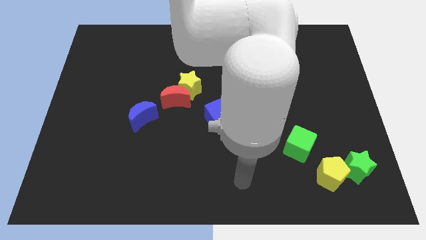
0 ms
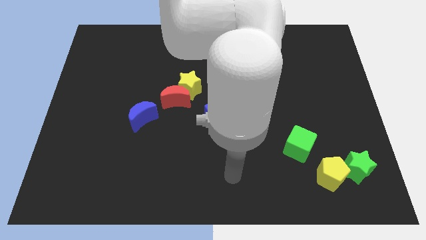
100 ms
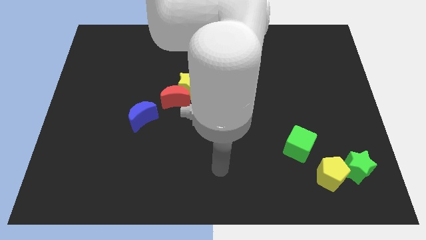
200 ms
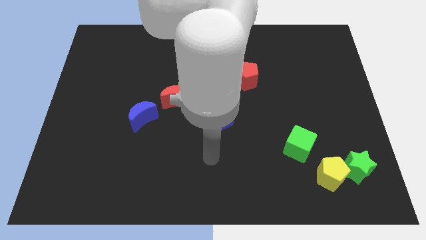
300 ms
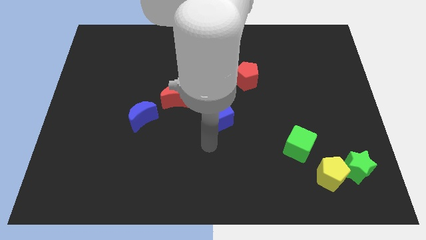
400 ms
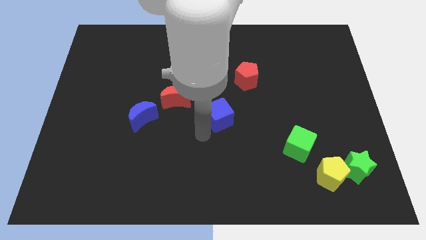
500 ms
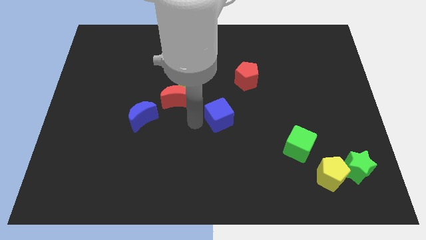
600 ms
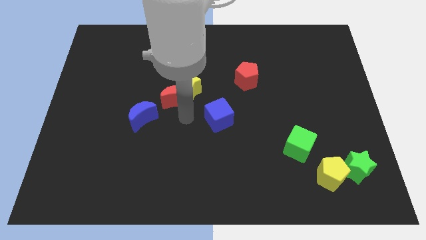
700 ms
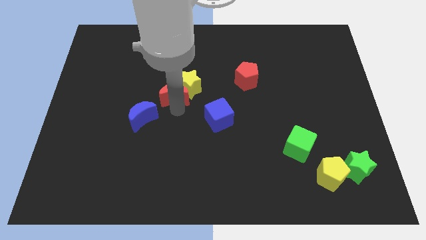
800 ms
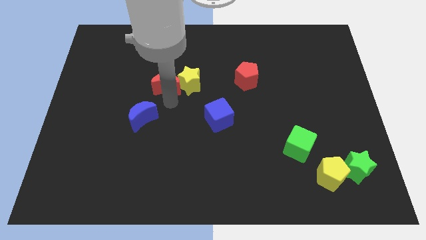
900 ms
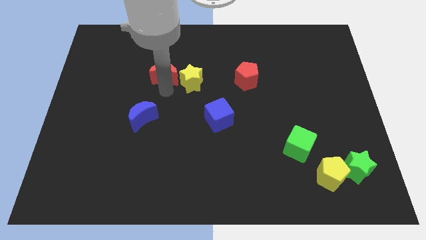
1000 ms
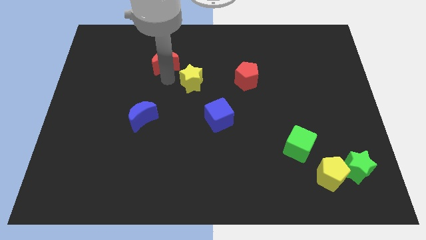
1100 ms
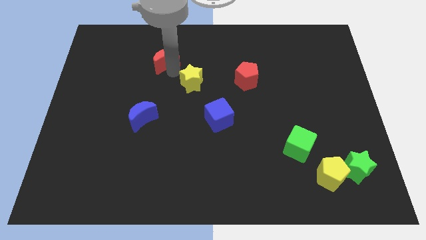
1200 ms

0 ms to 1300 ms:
separate the yellow star from the red moon

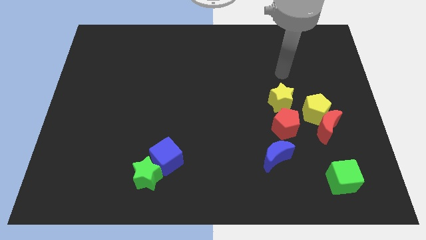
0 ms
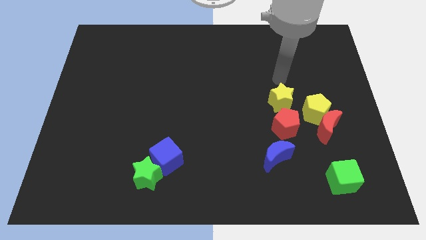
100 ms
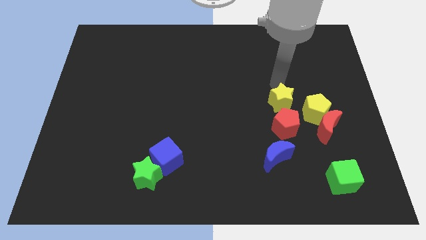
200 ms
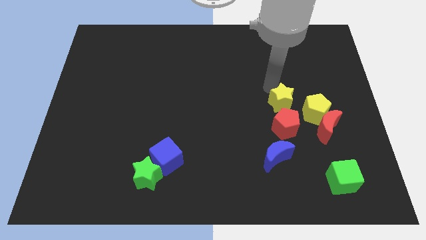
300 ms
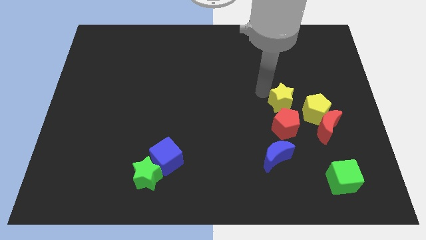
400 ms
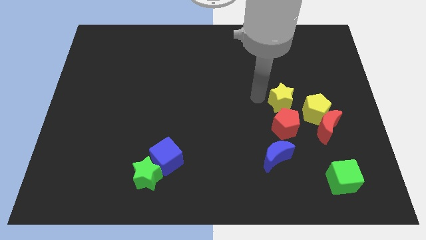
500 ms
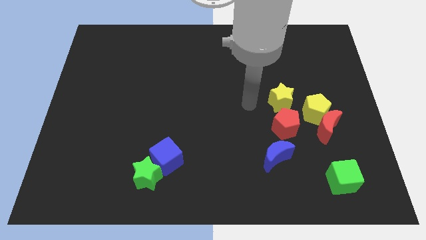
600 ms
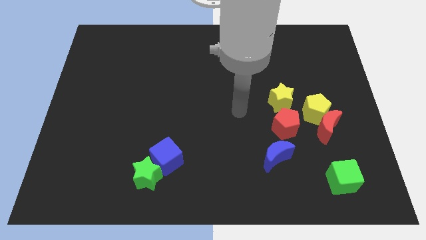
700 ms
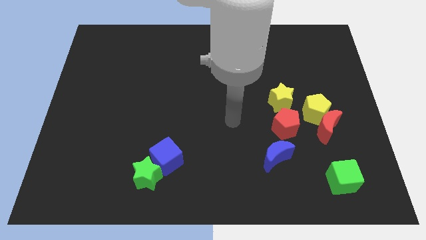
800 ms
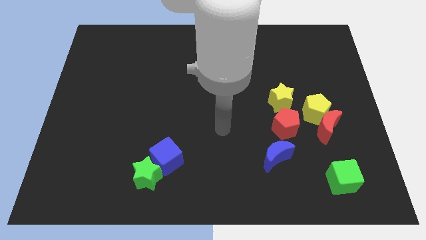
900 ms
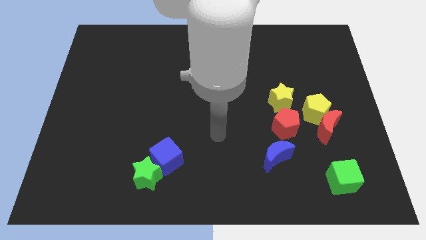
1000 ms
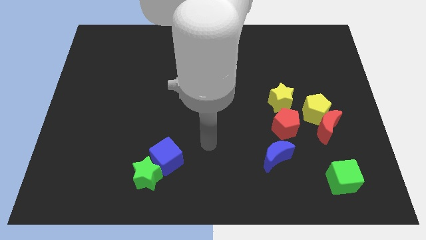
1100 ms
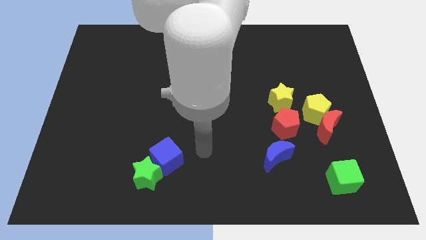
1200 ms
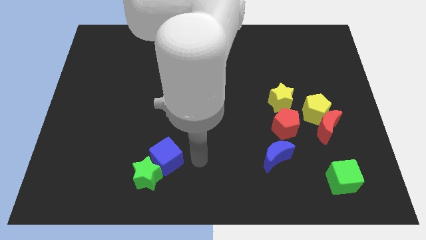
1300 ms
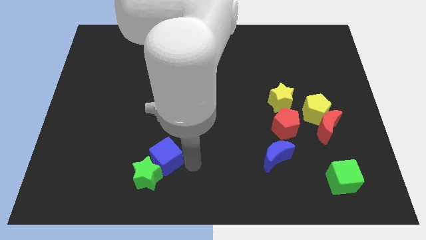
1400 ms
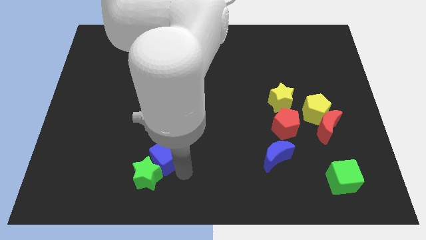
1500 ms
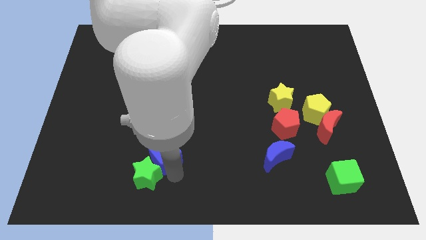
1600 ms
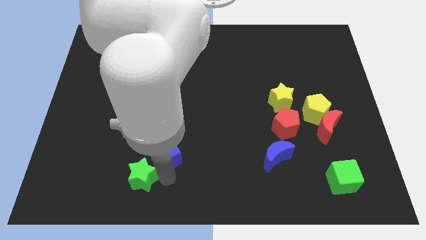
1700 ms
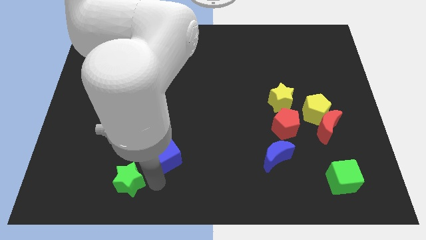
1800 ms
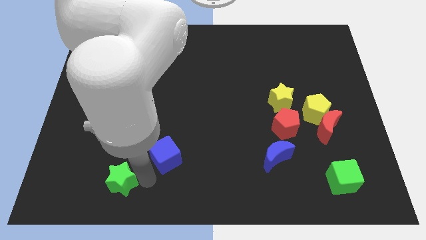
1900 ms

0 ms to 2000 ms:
separate the blue cube from the green star

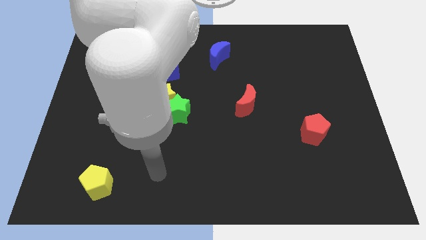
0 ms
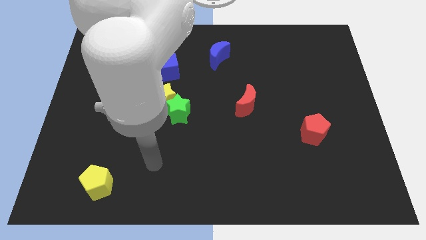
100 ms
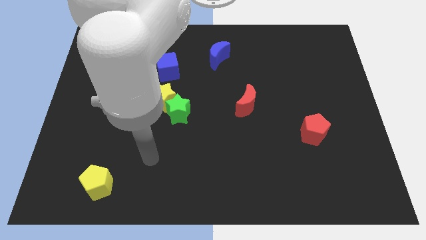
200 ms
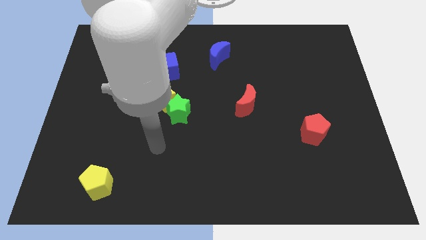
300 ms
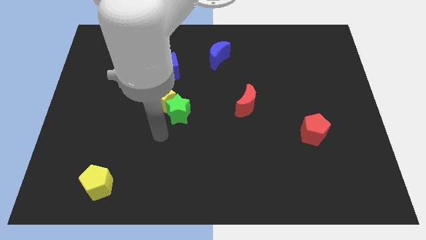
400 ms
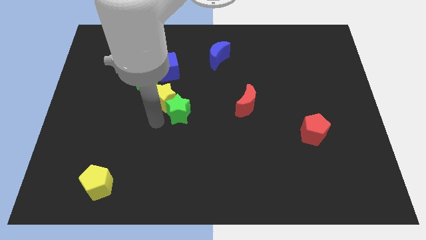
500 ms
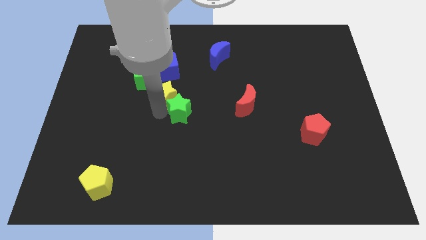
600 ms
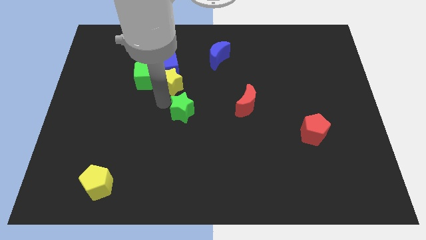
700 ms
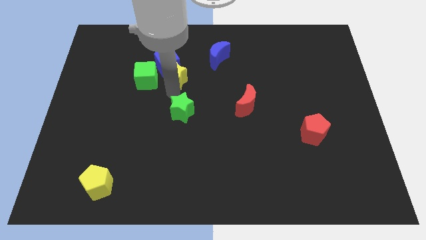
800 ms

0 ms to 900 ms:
pull the green star apart from the yellow star

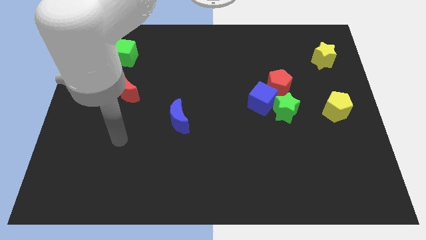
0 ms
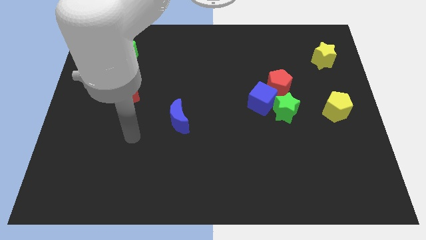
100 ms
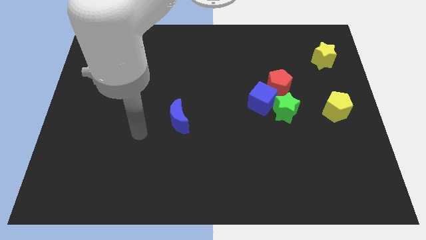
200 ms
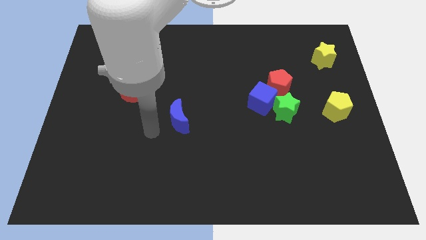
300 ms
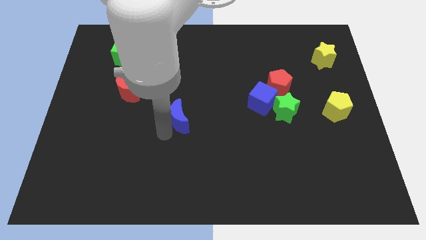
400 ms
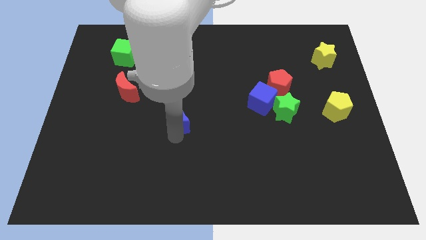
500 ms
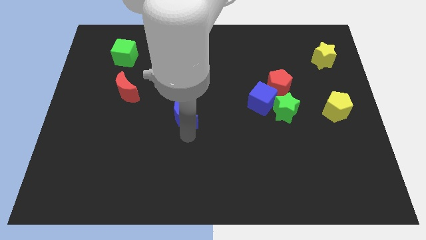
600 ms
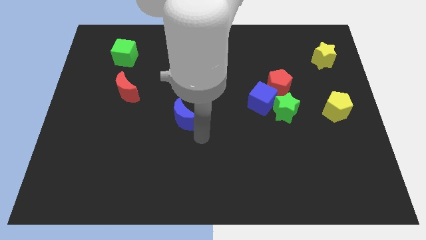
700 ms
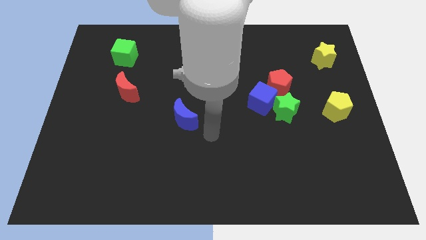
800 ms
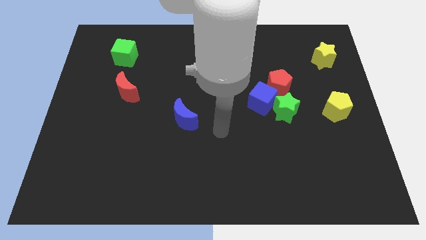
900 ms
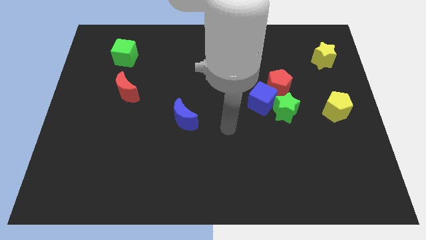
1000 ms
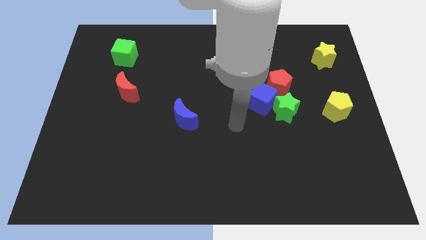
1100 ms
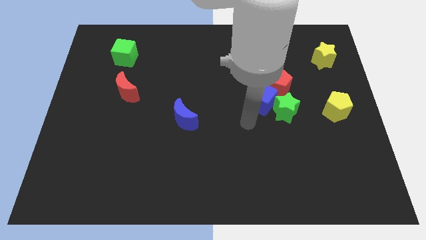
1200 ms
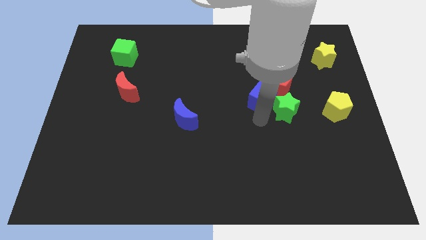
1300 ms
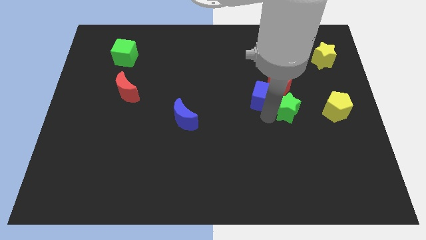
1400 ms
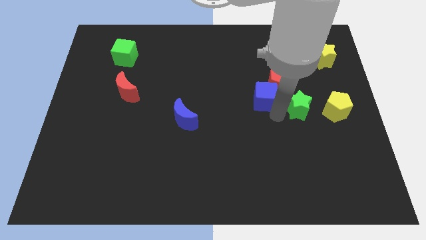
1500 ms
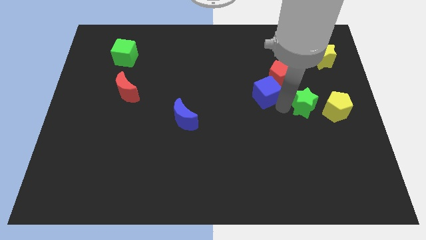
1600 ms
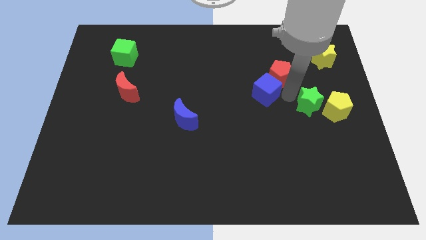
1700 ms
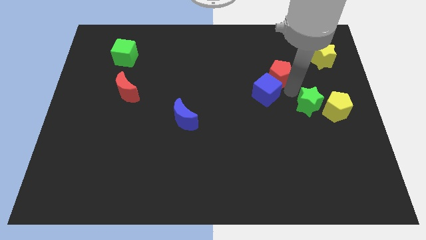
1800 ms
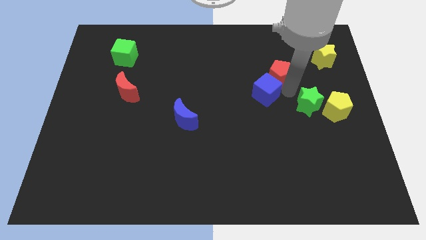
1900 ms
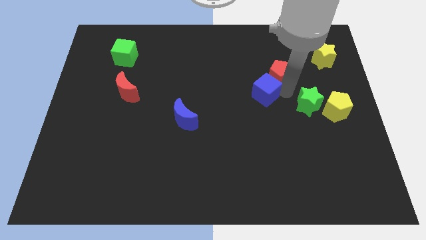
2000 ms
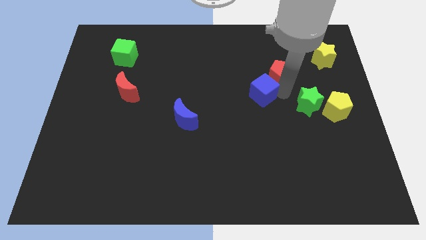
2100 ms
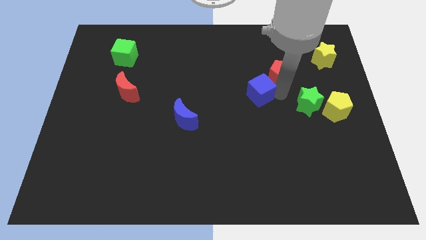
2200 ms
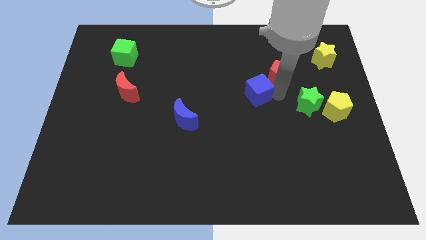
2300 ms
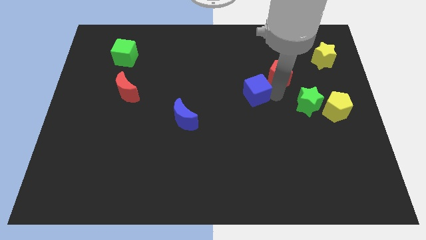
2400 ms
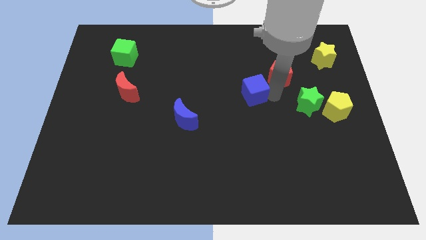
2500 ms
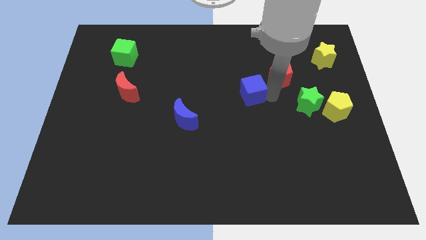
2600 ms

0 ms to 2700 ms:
separate the blue cube from the green star and red pentagon

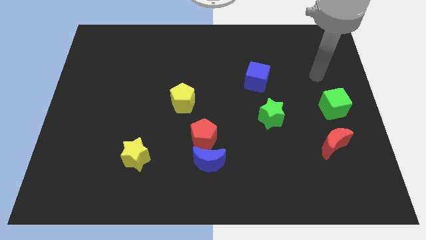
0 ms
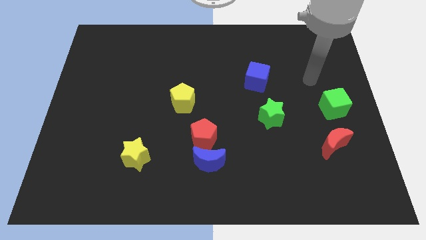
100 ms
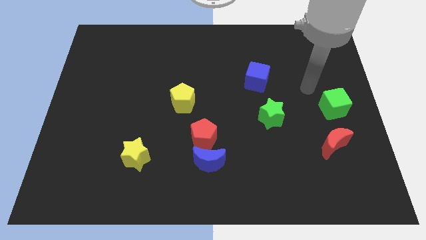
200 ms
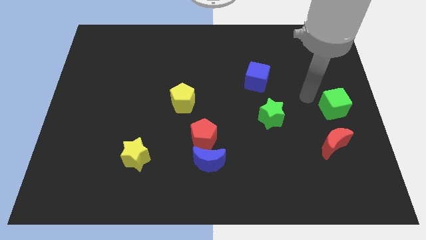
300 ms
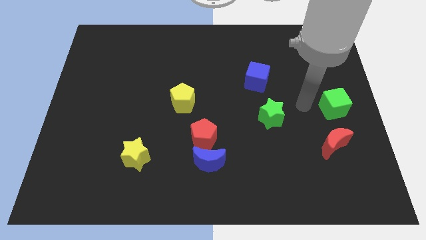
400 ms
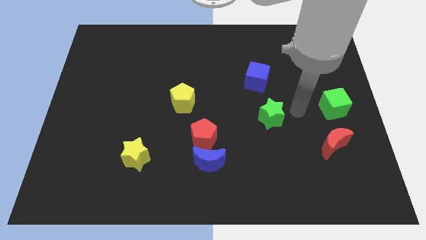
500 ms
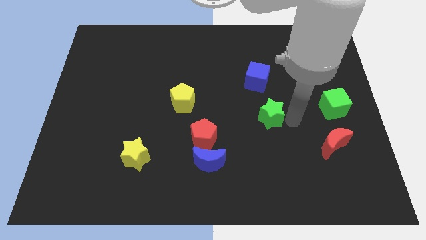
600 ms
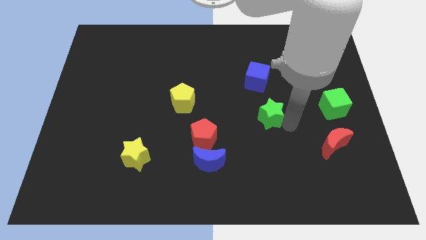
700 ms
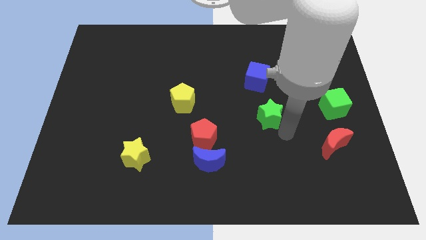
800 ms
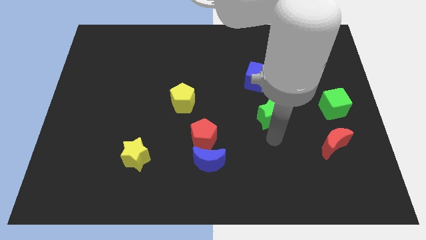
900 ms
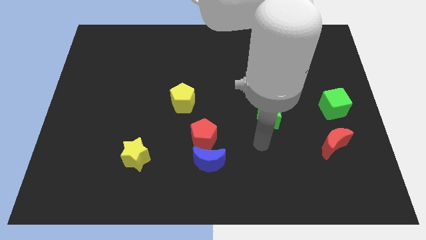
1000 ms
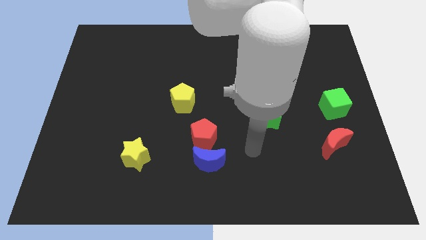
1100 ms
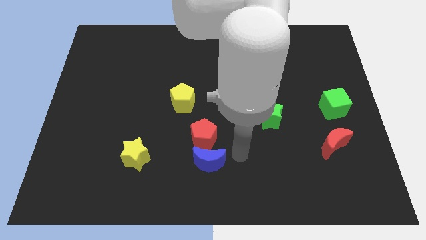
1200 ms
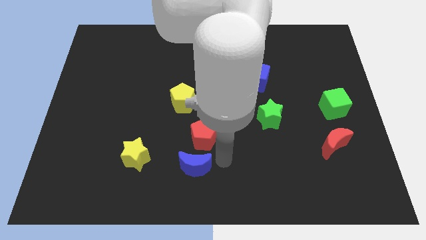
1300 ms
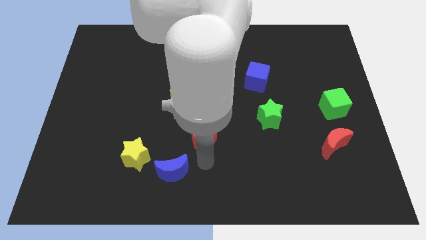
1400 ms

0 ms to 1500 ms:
move the red pentagon away from the blue moon

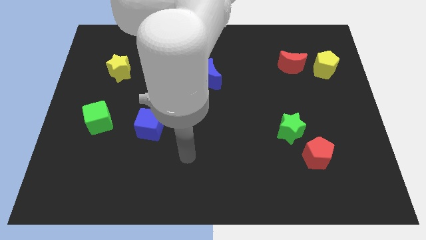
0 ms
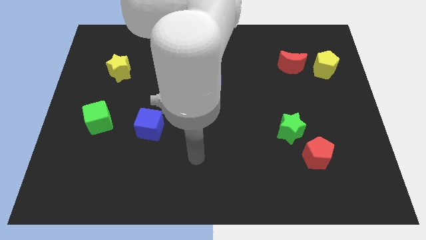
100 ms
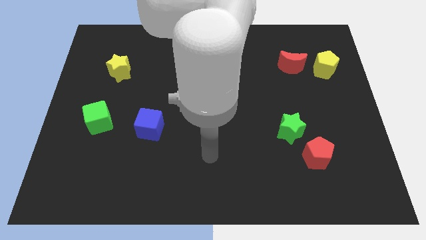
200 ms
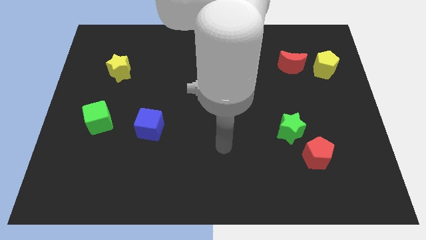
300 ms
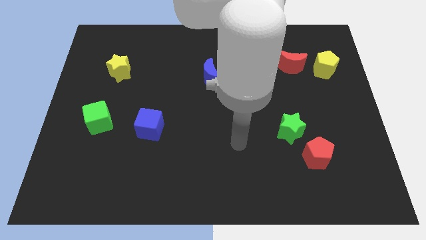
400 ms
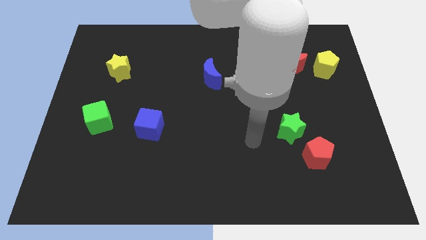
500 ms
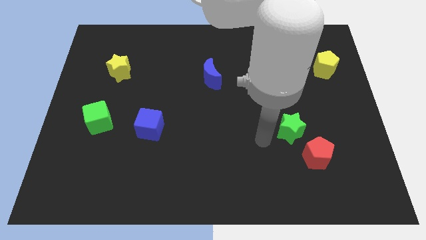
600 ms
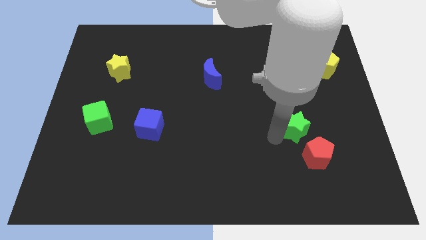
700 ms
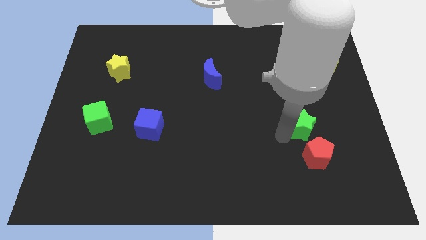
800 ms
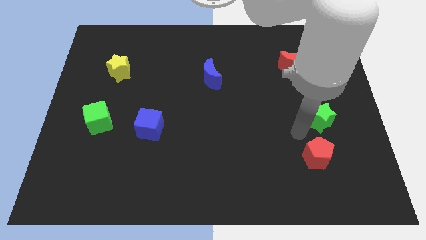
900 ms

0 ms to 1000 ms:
separate the red pentagon from the green star
